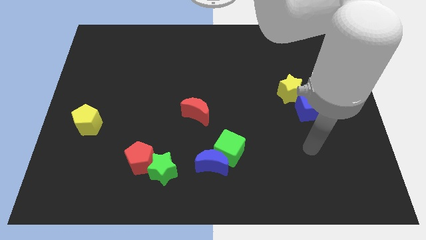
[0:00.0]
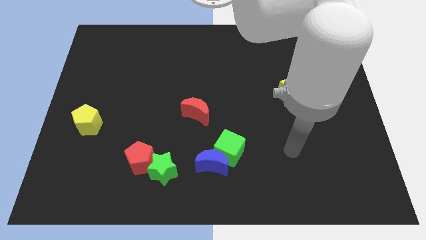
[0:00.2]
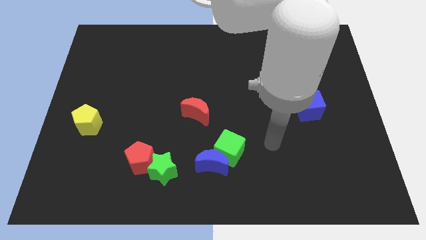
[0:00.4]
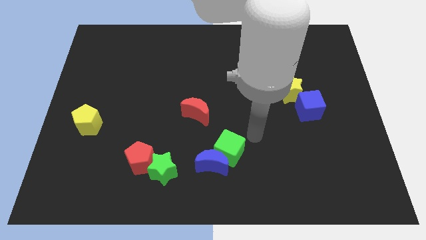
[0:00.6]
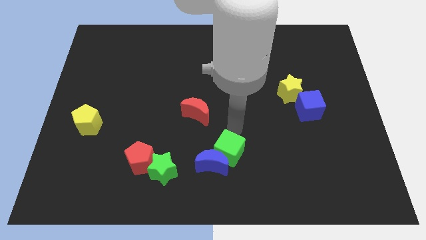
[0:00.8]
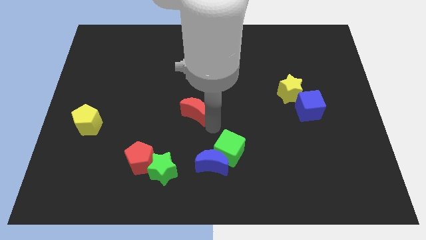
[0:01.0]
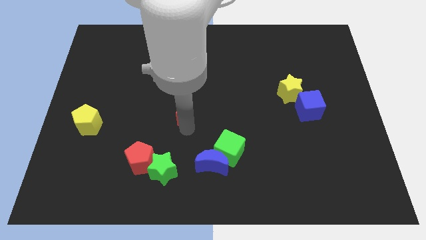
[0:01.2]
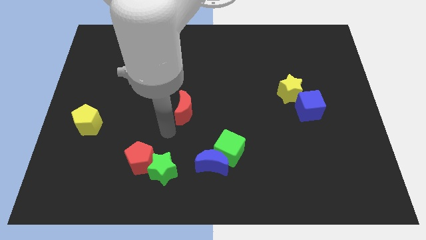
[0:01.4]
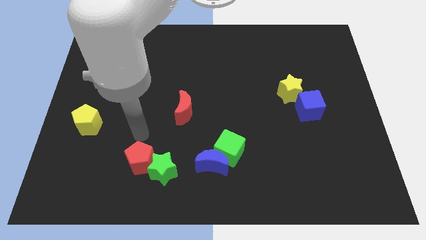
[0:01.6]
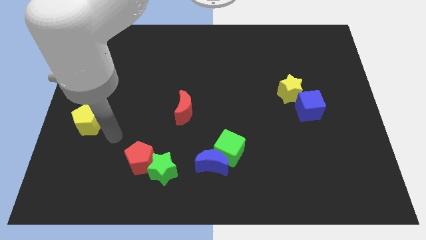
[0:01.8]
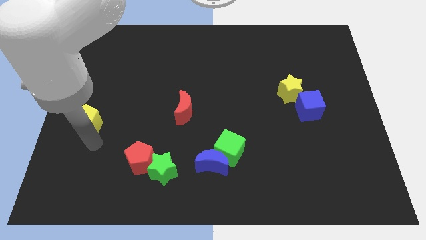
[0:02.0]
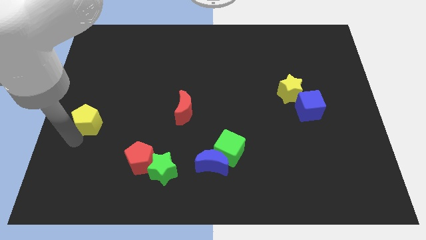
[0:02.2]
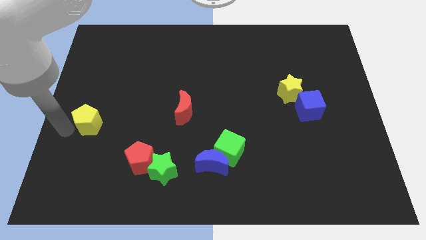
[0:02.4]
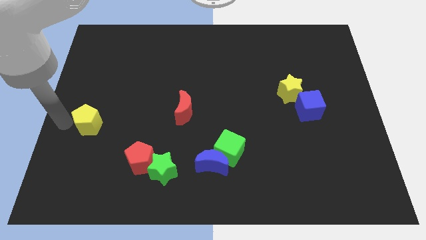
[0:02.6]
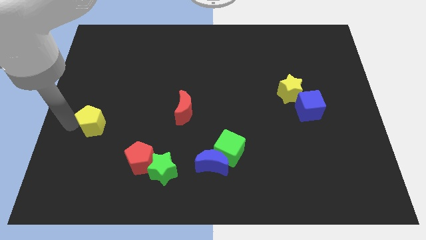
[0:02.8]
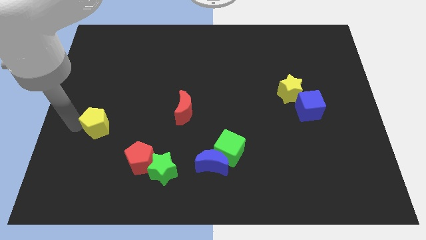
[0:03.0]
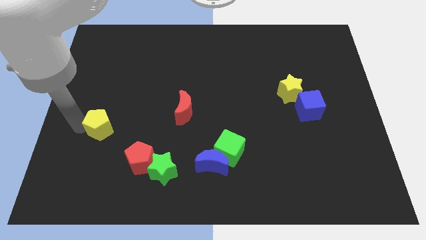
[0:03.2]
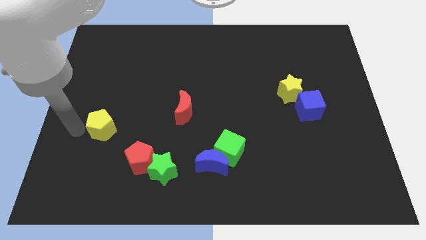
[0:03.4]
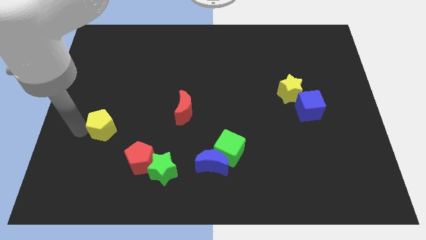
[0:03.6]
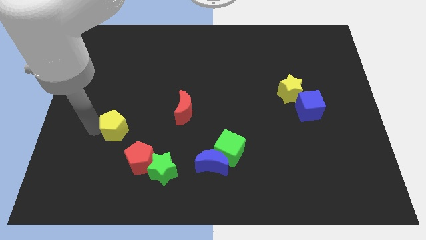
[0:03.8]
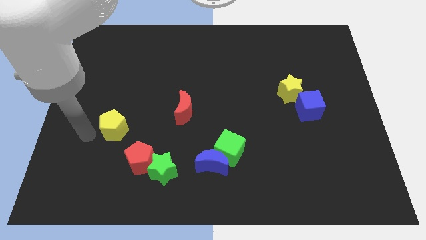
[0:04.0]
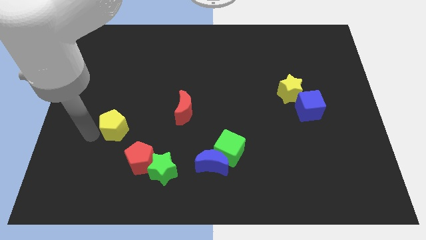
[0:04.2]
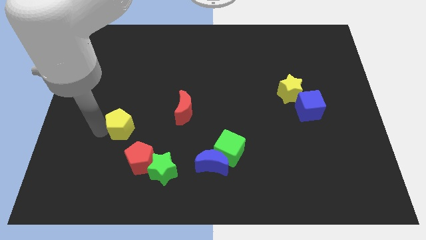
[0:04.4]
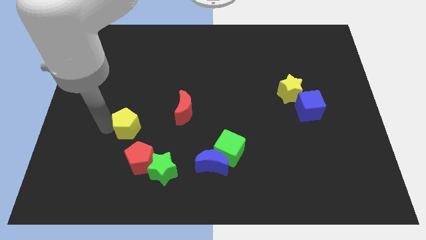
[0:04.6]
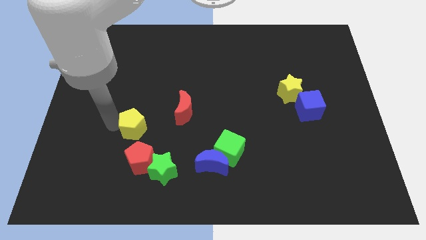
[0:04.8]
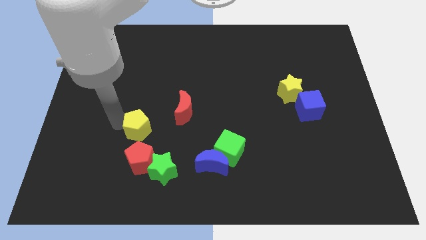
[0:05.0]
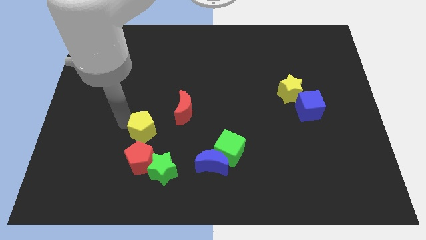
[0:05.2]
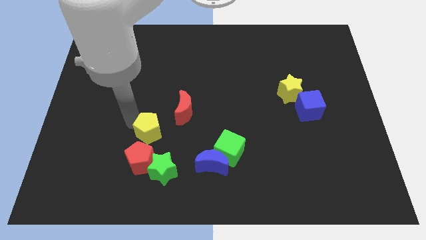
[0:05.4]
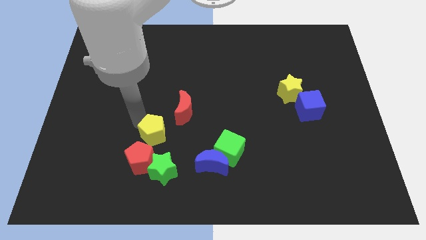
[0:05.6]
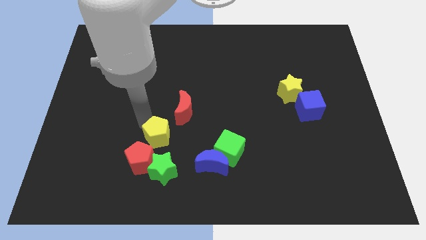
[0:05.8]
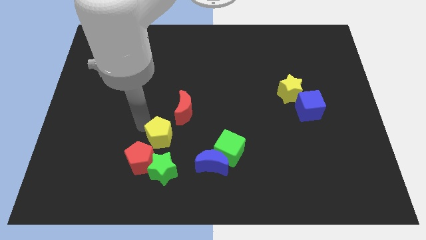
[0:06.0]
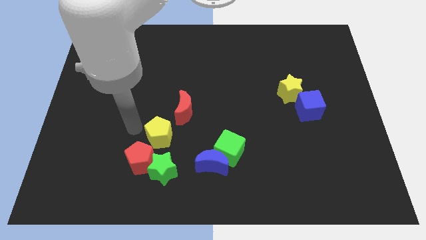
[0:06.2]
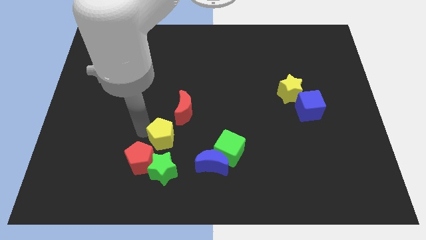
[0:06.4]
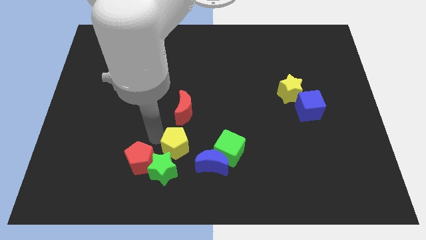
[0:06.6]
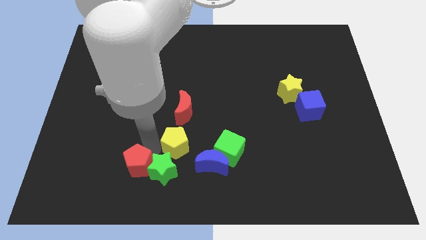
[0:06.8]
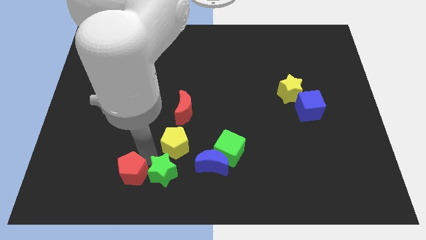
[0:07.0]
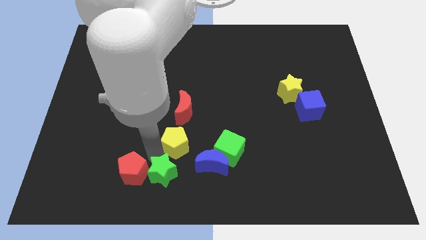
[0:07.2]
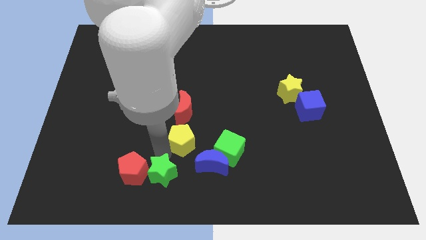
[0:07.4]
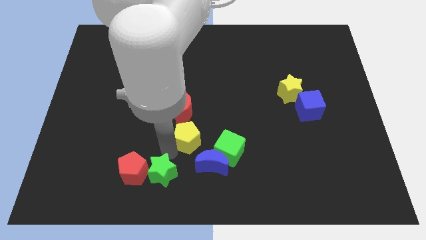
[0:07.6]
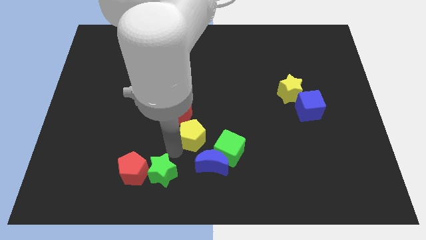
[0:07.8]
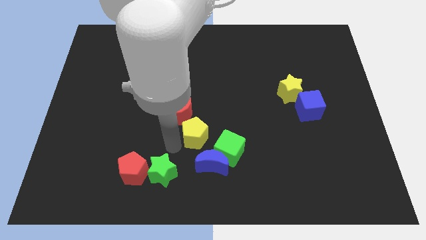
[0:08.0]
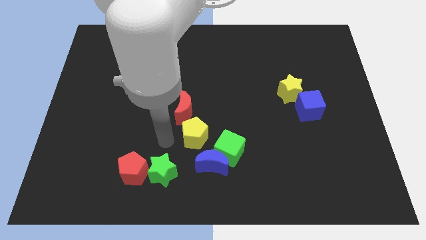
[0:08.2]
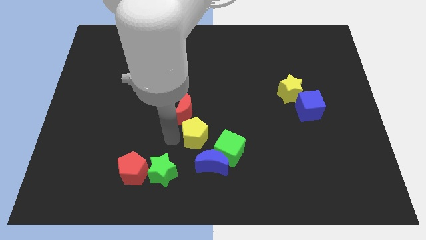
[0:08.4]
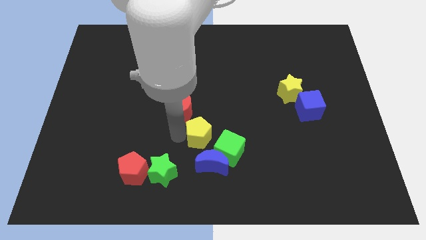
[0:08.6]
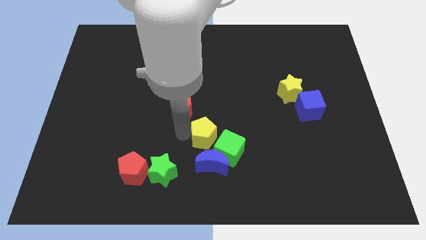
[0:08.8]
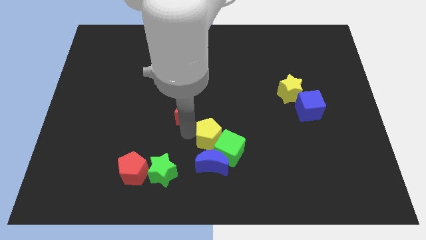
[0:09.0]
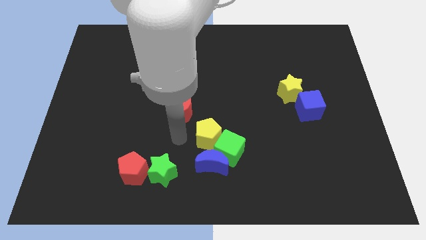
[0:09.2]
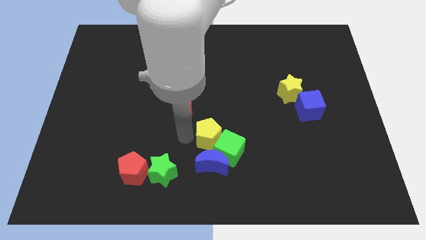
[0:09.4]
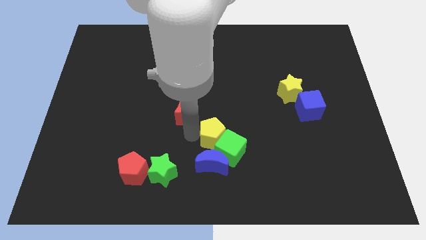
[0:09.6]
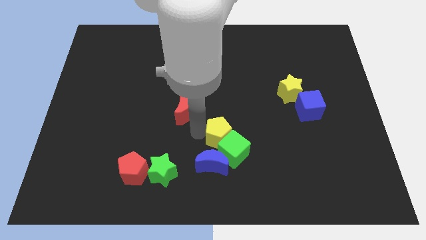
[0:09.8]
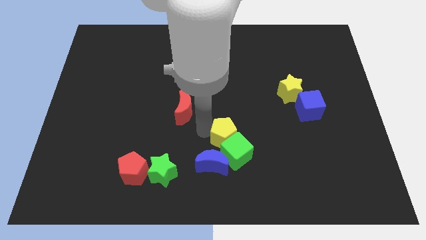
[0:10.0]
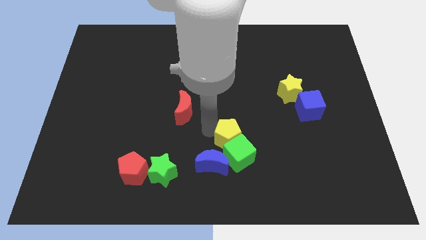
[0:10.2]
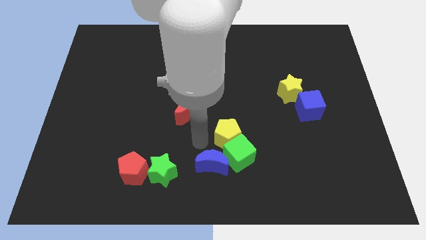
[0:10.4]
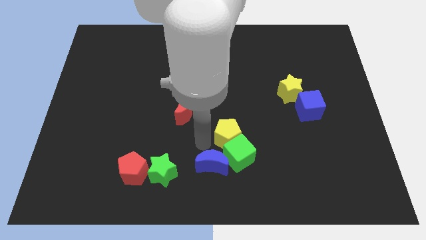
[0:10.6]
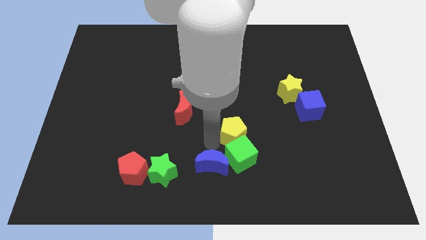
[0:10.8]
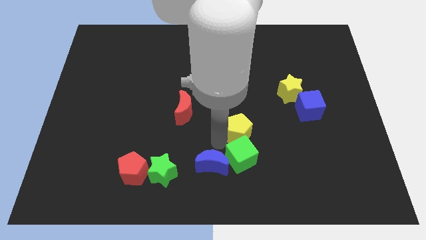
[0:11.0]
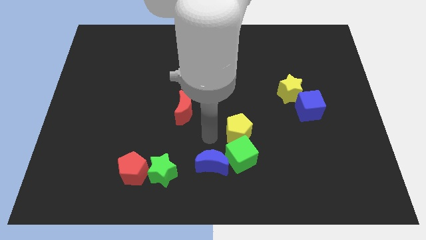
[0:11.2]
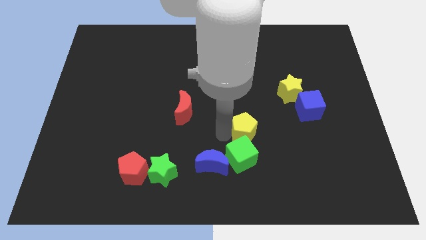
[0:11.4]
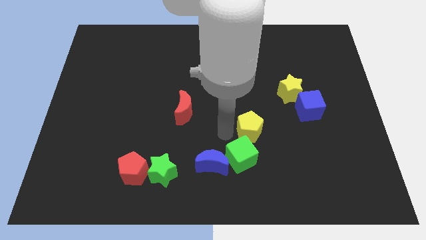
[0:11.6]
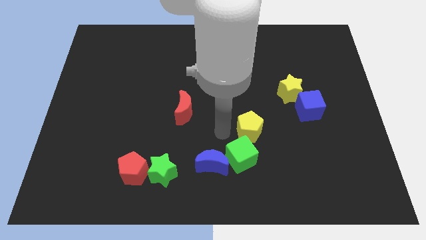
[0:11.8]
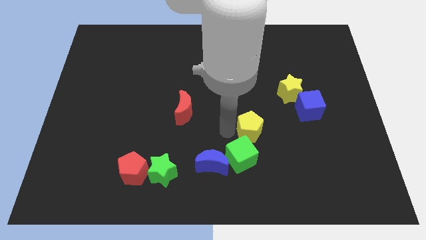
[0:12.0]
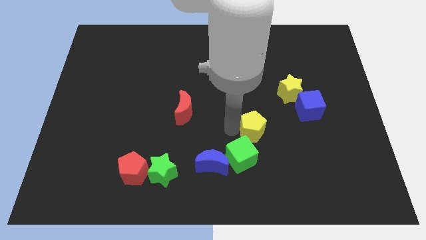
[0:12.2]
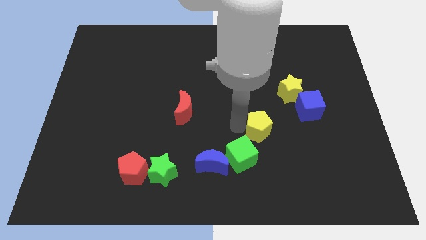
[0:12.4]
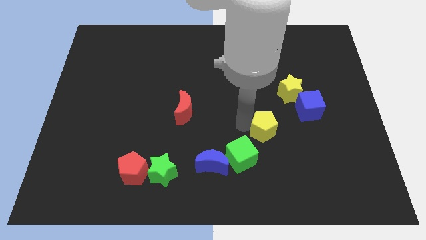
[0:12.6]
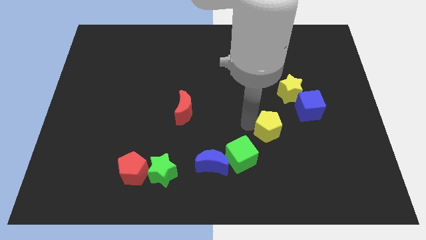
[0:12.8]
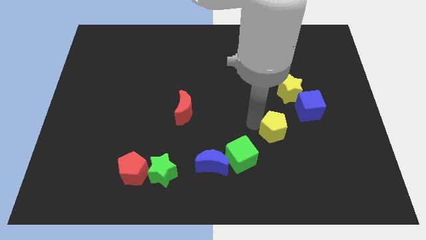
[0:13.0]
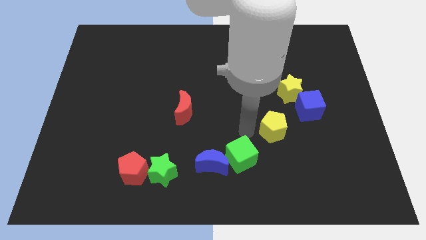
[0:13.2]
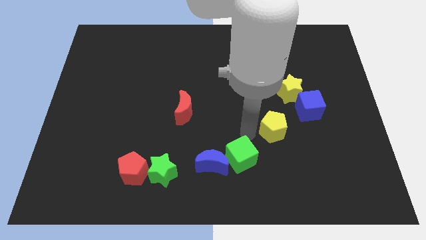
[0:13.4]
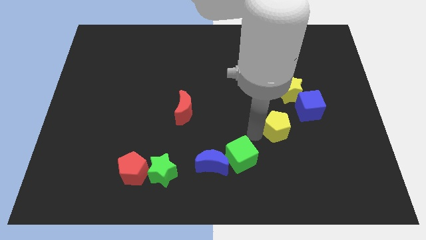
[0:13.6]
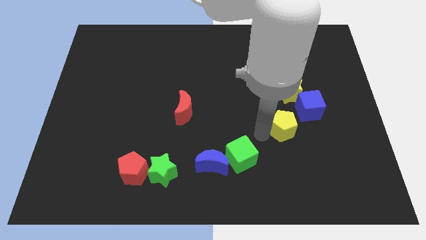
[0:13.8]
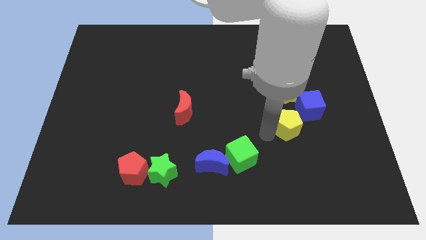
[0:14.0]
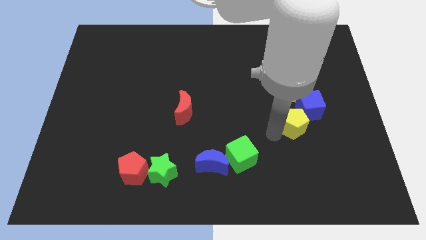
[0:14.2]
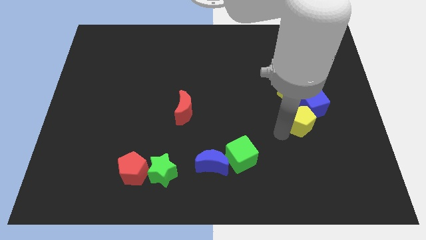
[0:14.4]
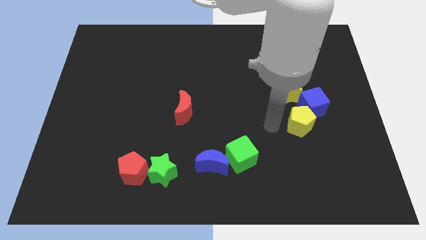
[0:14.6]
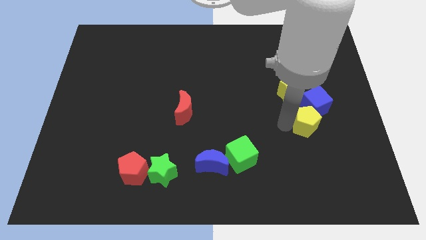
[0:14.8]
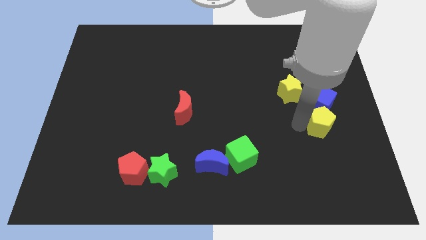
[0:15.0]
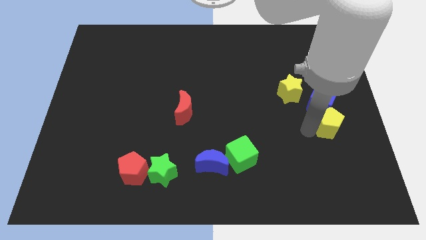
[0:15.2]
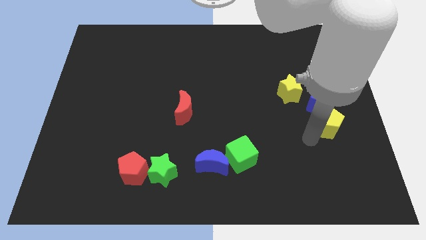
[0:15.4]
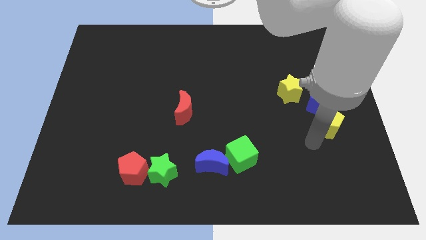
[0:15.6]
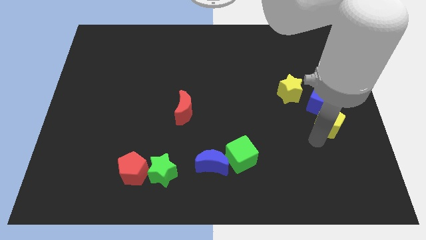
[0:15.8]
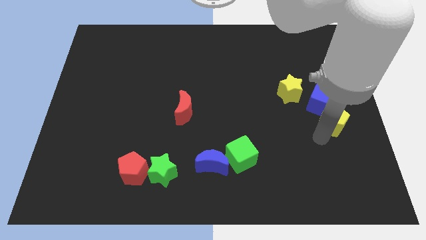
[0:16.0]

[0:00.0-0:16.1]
put the yellow pentagon to the right side of the board
